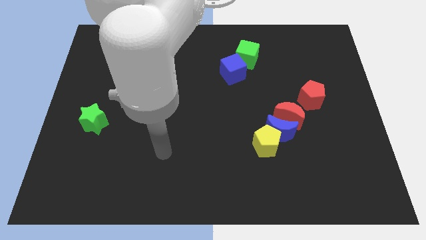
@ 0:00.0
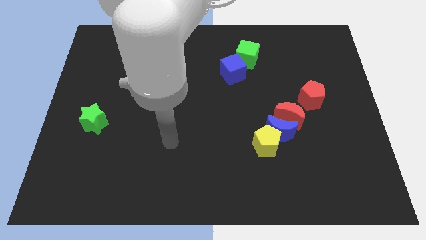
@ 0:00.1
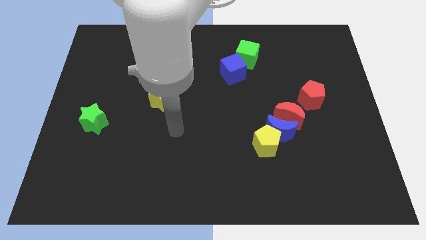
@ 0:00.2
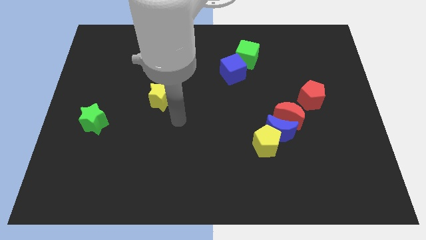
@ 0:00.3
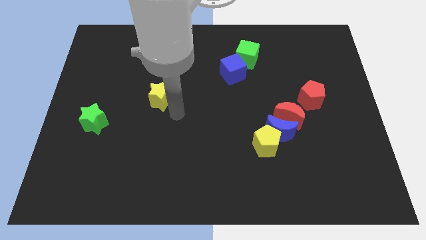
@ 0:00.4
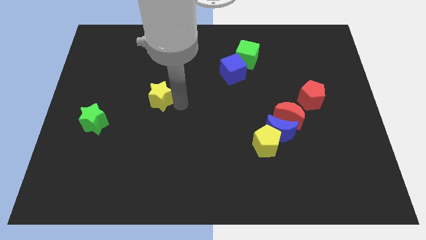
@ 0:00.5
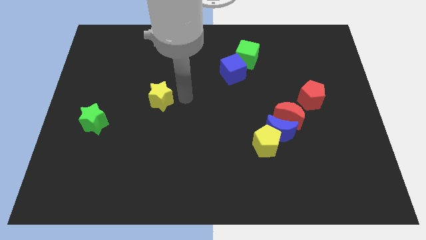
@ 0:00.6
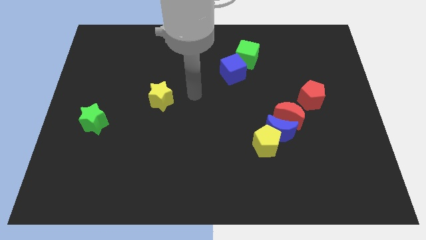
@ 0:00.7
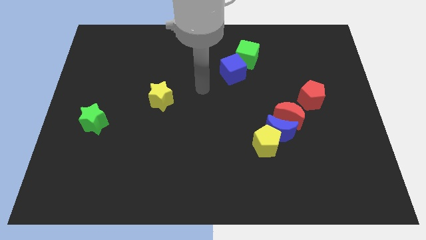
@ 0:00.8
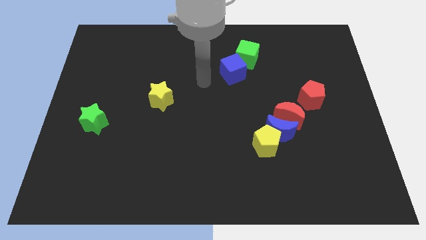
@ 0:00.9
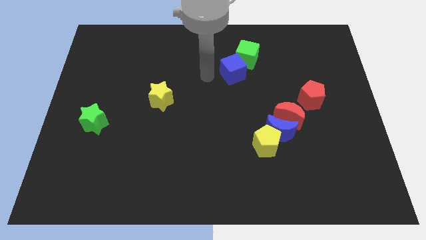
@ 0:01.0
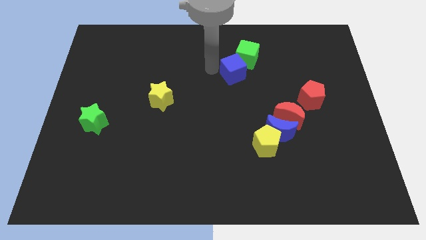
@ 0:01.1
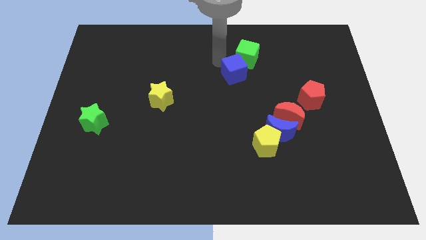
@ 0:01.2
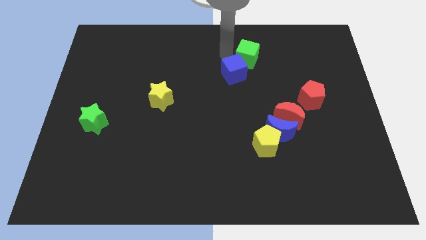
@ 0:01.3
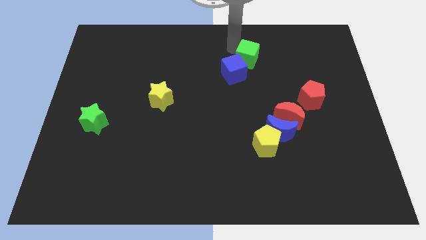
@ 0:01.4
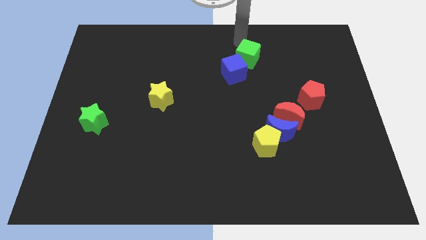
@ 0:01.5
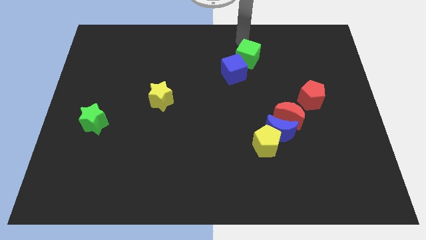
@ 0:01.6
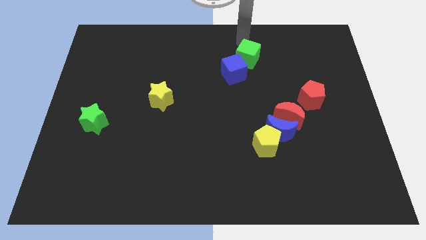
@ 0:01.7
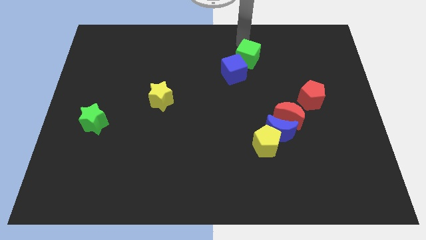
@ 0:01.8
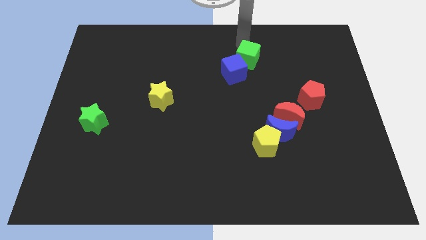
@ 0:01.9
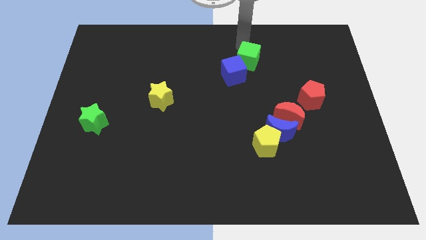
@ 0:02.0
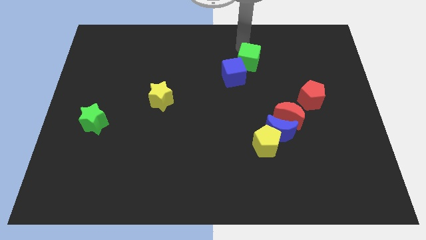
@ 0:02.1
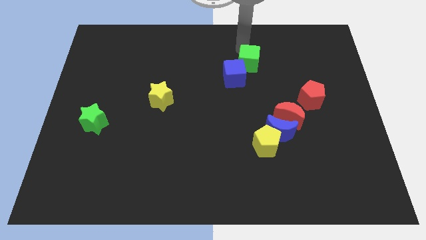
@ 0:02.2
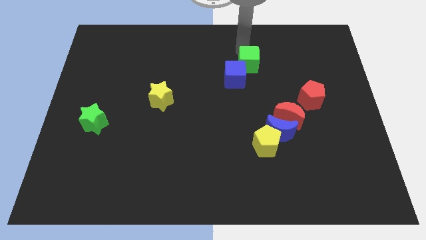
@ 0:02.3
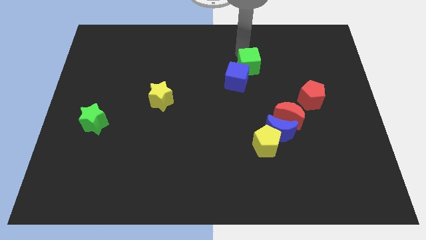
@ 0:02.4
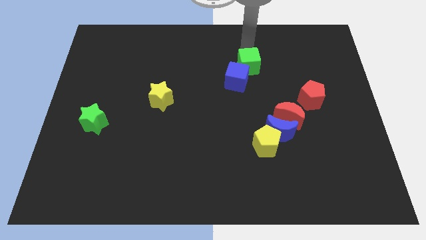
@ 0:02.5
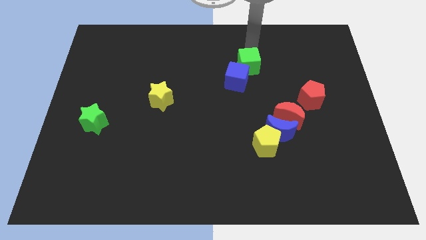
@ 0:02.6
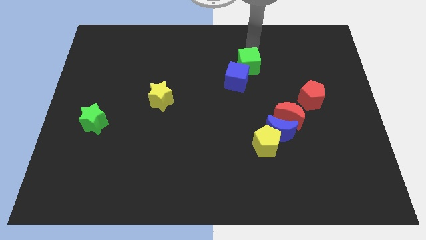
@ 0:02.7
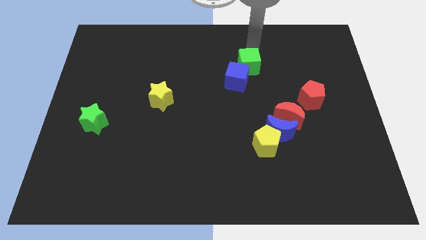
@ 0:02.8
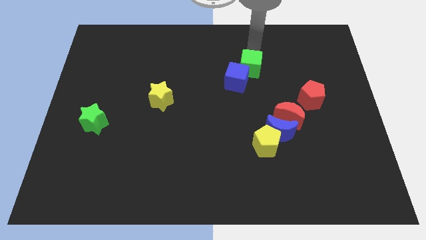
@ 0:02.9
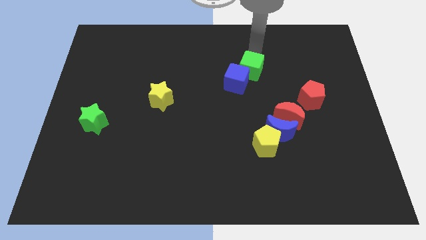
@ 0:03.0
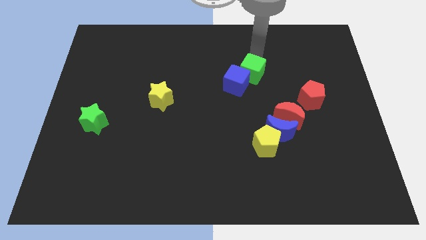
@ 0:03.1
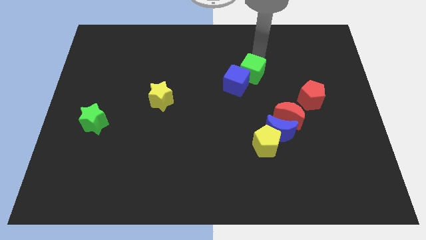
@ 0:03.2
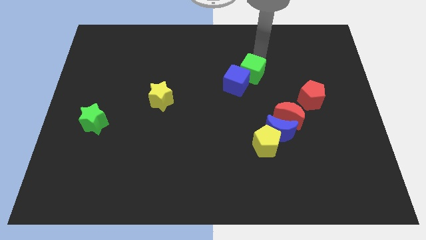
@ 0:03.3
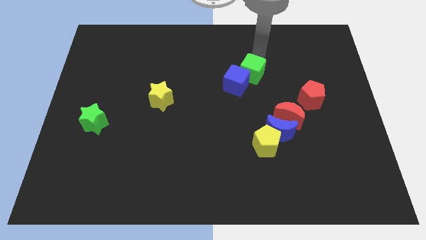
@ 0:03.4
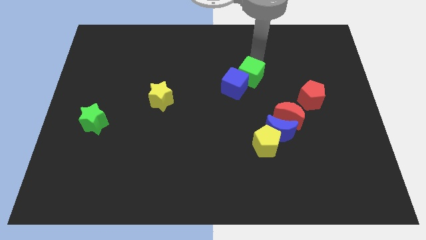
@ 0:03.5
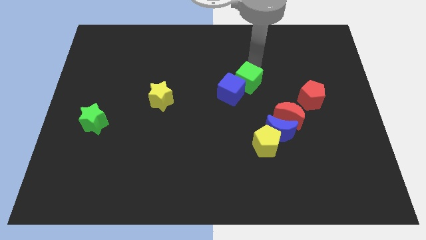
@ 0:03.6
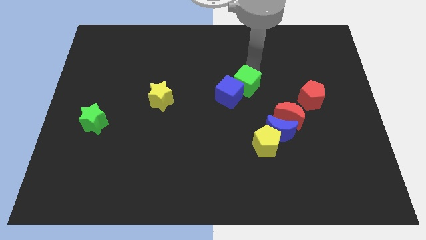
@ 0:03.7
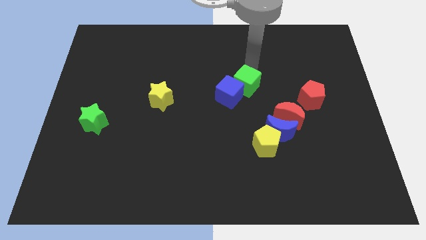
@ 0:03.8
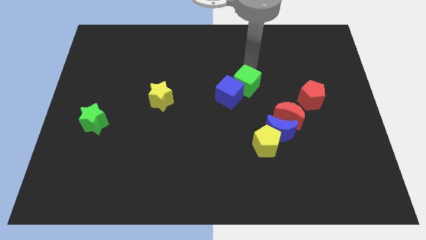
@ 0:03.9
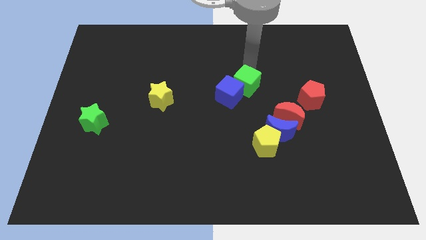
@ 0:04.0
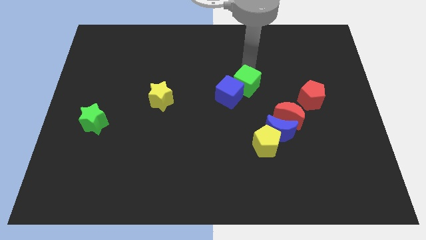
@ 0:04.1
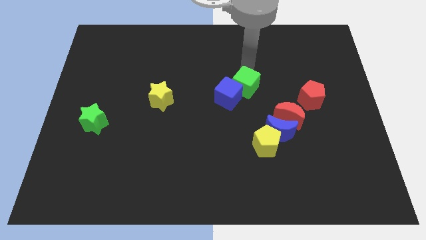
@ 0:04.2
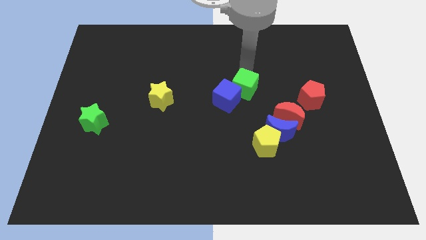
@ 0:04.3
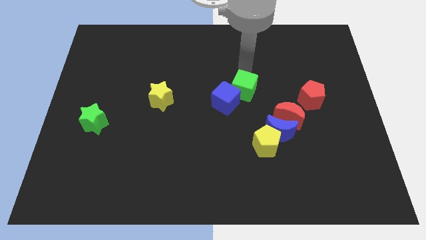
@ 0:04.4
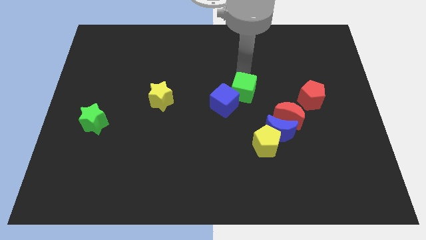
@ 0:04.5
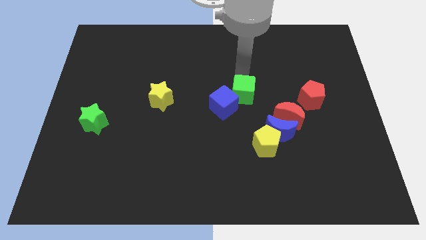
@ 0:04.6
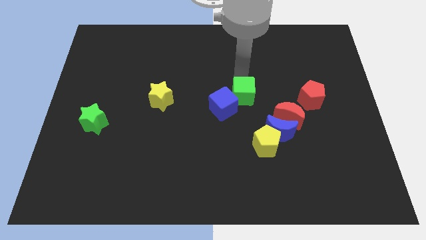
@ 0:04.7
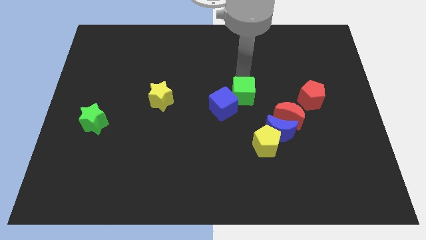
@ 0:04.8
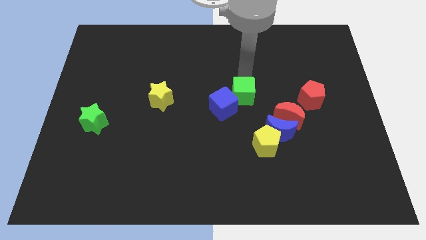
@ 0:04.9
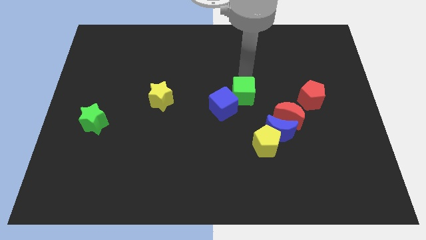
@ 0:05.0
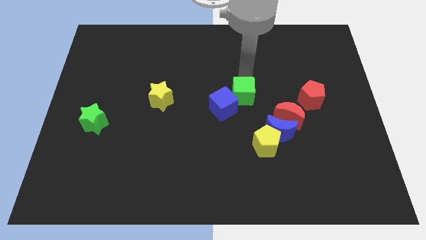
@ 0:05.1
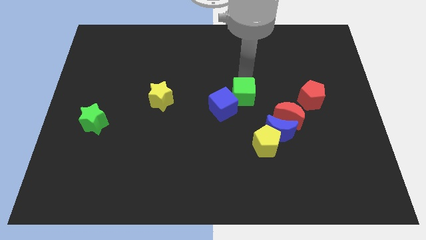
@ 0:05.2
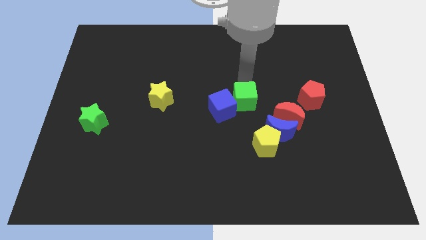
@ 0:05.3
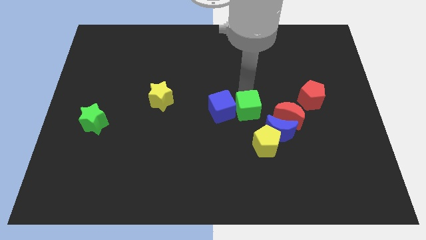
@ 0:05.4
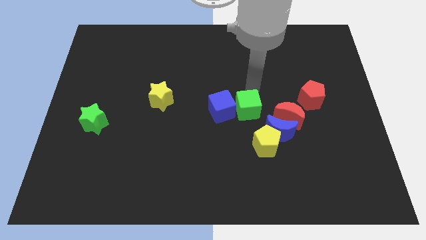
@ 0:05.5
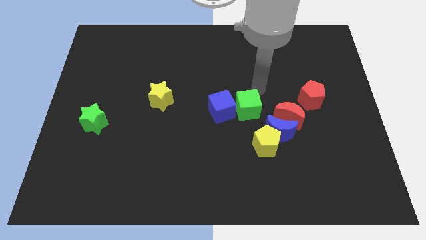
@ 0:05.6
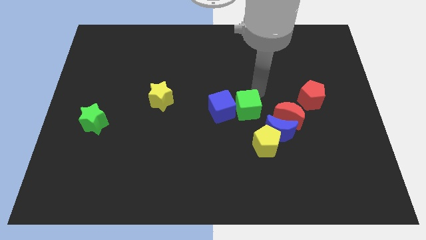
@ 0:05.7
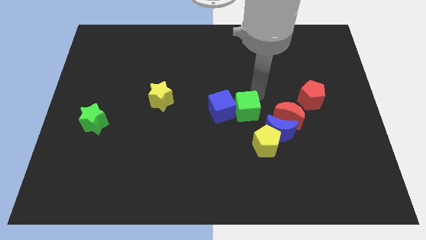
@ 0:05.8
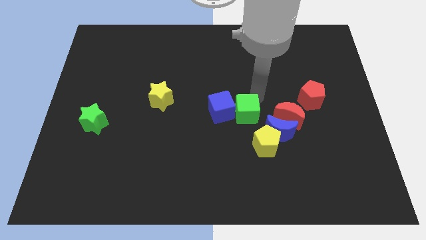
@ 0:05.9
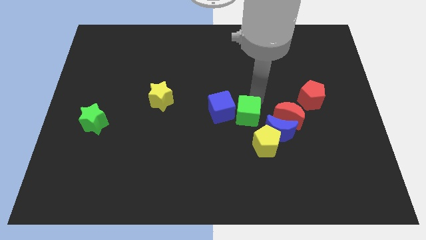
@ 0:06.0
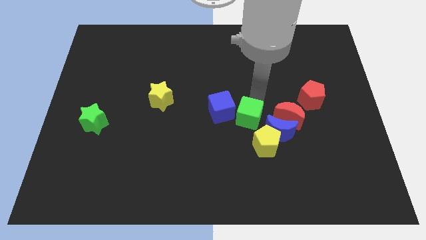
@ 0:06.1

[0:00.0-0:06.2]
slide the green cube left of the blue moon
